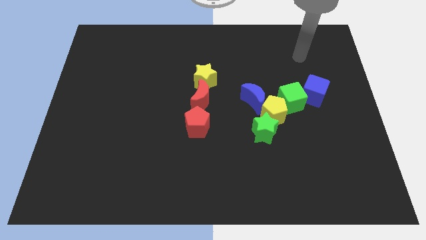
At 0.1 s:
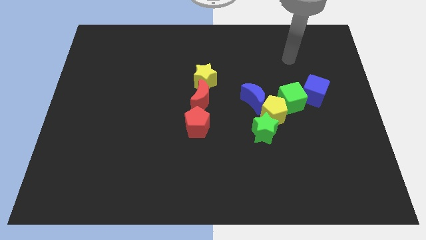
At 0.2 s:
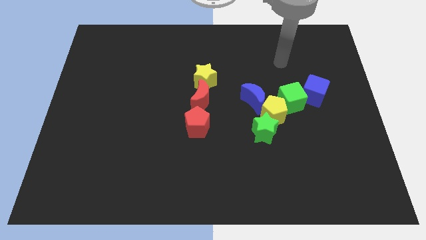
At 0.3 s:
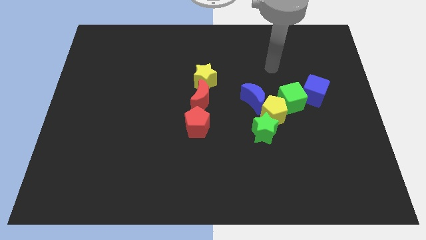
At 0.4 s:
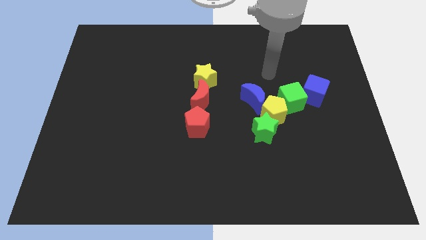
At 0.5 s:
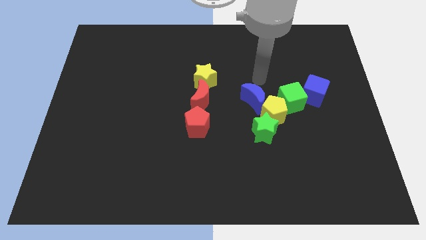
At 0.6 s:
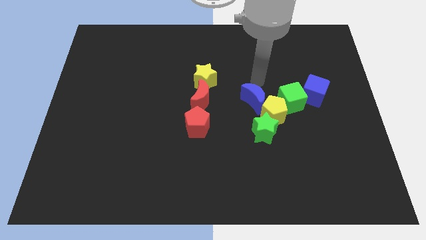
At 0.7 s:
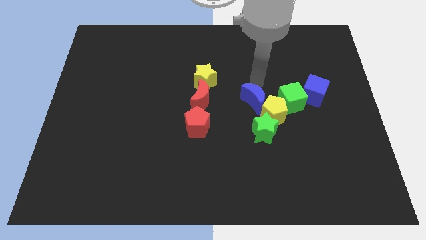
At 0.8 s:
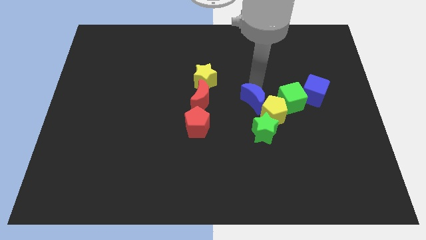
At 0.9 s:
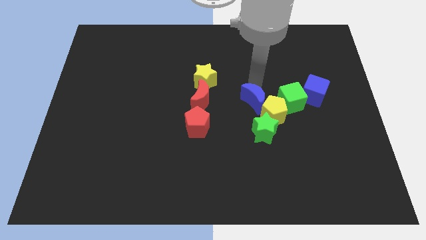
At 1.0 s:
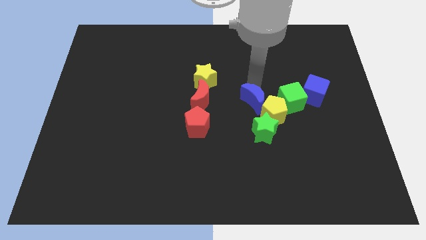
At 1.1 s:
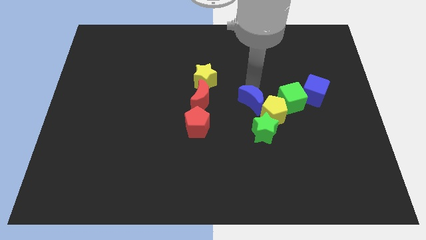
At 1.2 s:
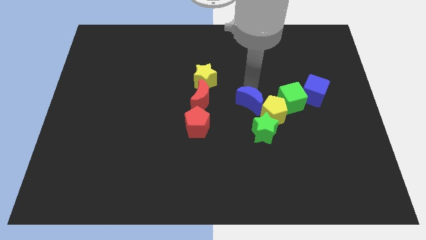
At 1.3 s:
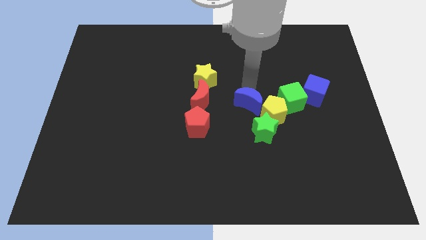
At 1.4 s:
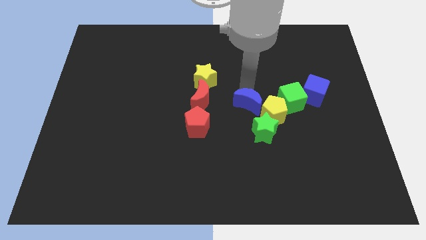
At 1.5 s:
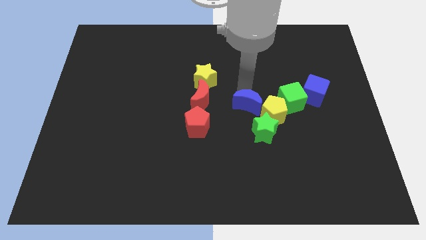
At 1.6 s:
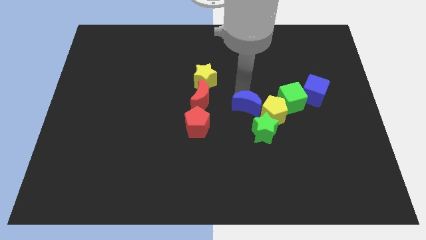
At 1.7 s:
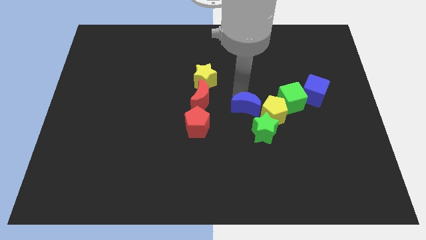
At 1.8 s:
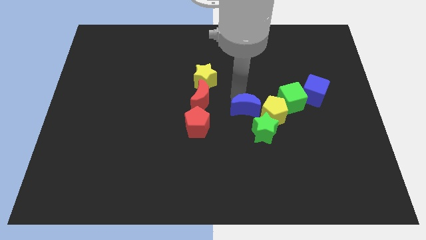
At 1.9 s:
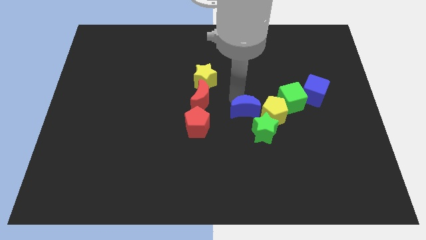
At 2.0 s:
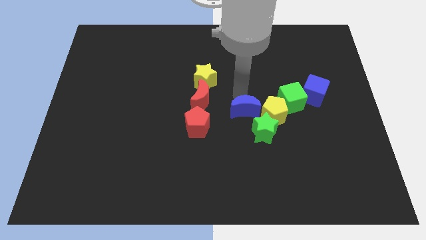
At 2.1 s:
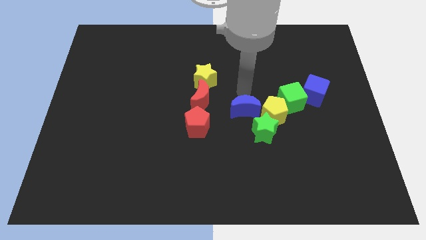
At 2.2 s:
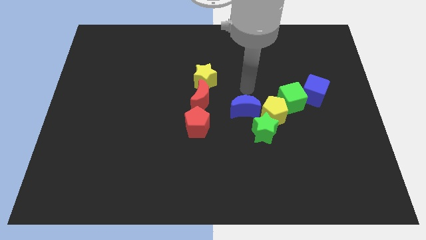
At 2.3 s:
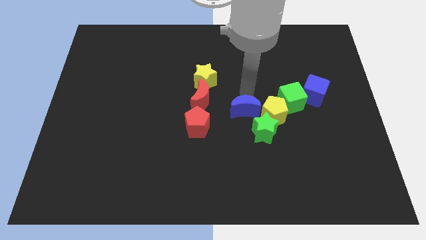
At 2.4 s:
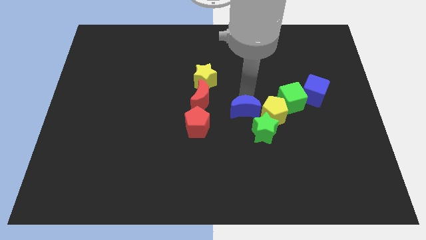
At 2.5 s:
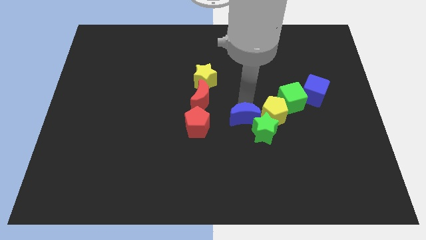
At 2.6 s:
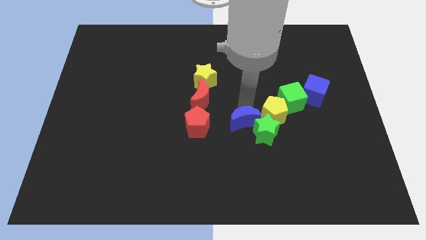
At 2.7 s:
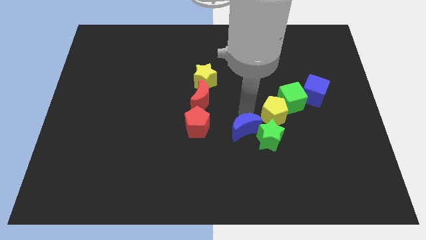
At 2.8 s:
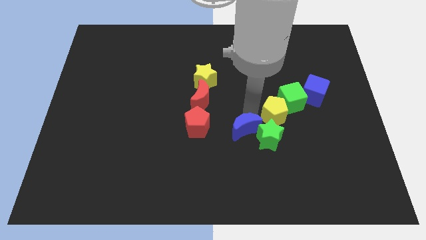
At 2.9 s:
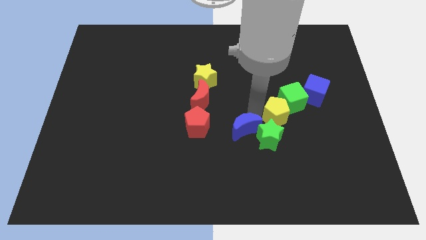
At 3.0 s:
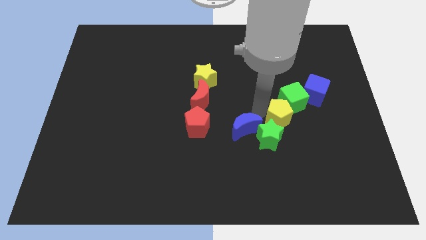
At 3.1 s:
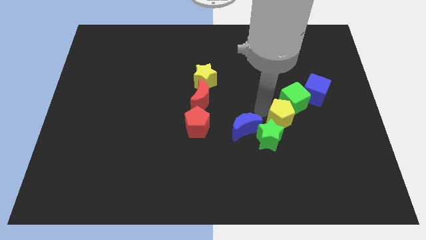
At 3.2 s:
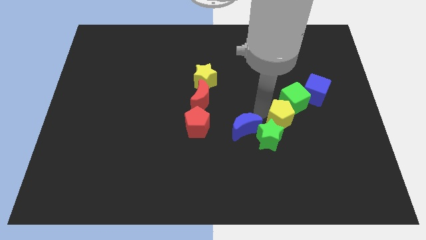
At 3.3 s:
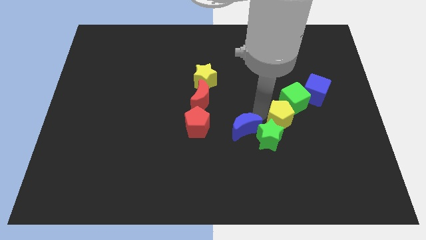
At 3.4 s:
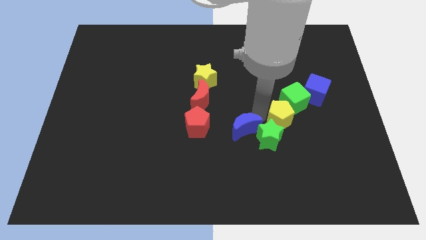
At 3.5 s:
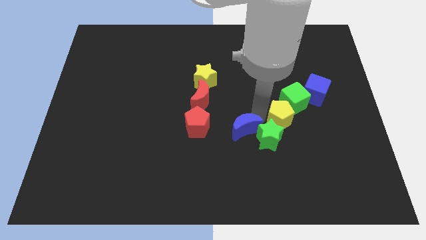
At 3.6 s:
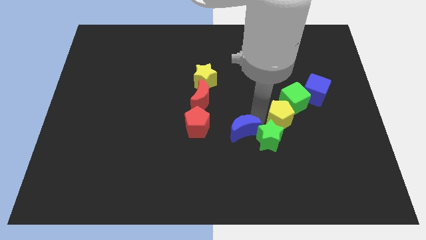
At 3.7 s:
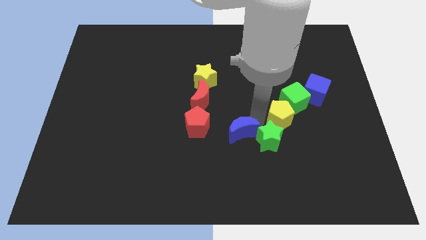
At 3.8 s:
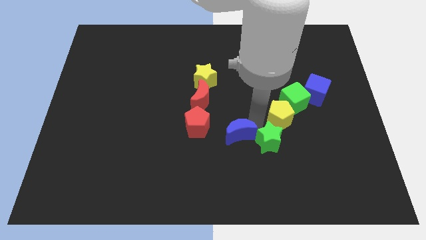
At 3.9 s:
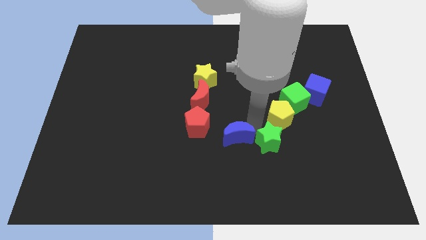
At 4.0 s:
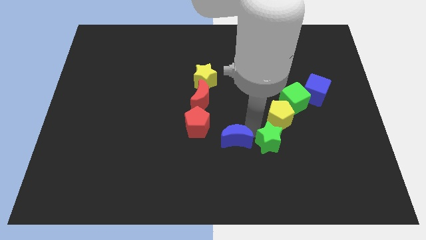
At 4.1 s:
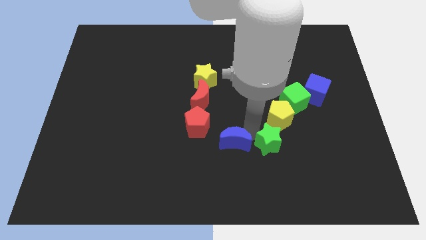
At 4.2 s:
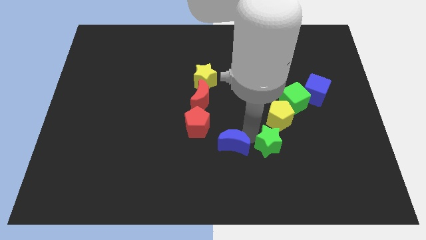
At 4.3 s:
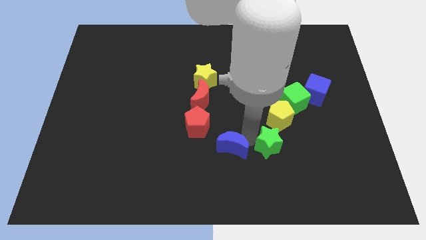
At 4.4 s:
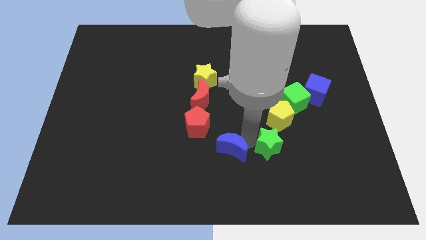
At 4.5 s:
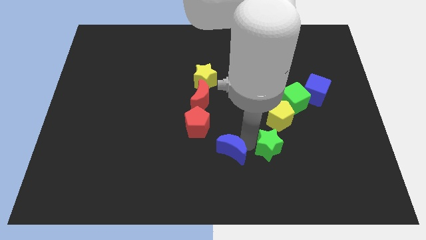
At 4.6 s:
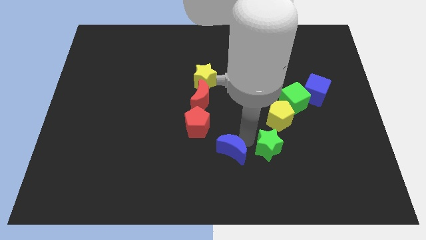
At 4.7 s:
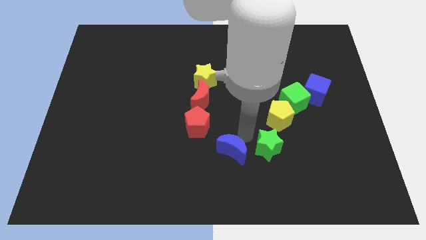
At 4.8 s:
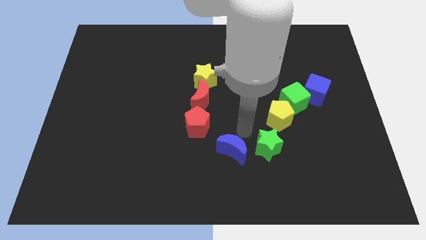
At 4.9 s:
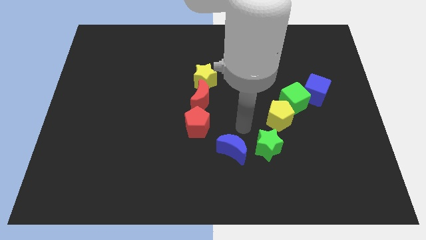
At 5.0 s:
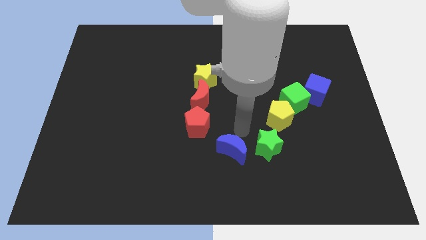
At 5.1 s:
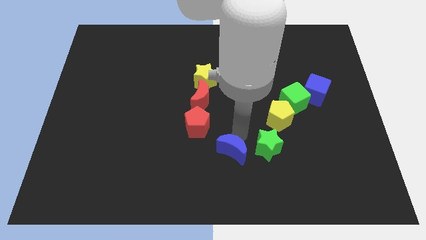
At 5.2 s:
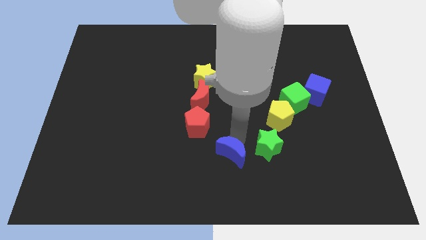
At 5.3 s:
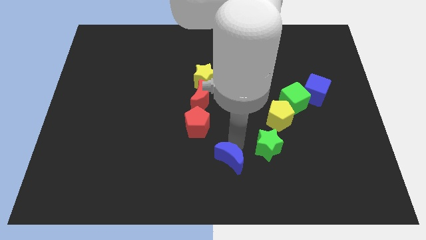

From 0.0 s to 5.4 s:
slide the blue moon to the bottom

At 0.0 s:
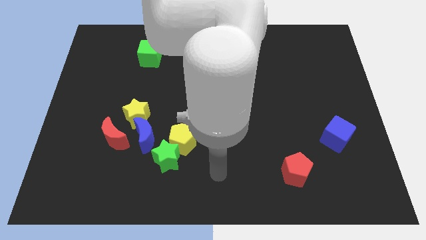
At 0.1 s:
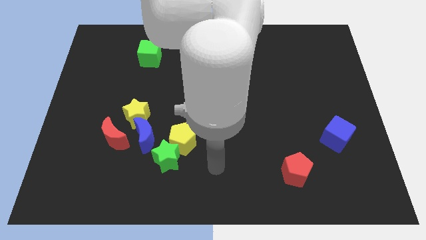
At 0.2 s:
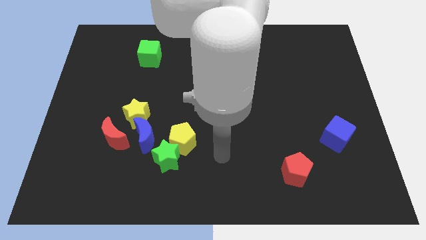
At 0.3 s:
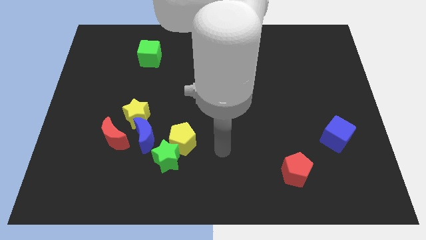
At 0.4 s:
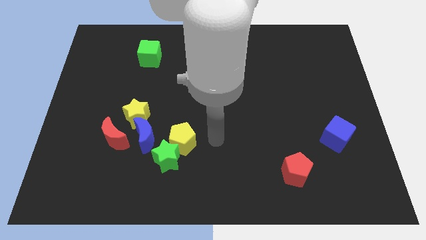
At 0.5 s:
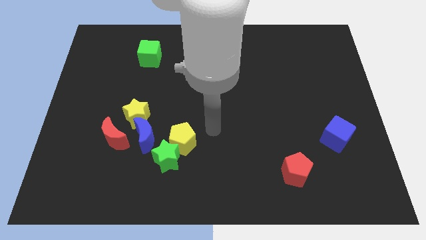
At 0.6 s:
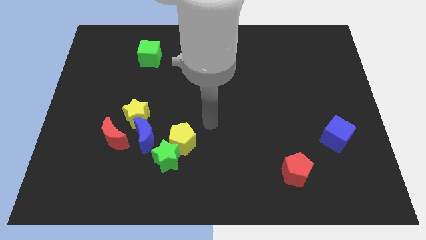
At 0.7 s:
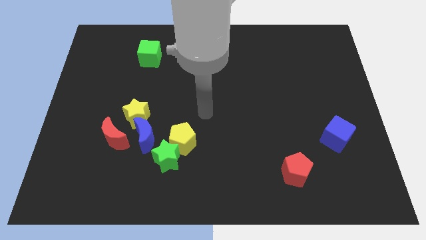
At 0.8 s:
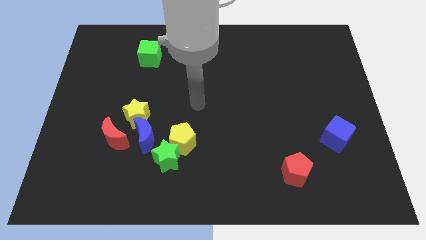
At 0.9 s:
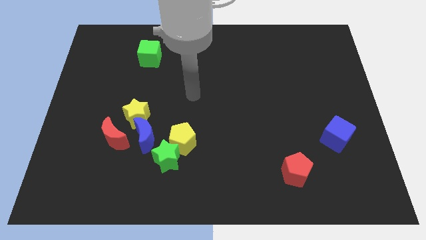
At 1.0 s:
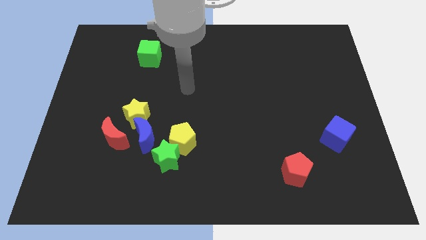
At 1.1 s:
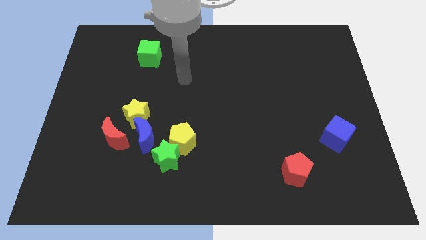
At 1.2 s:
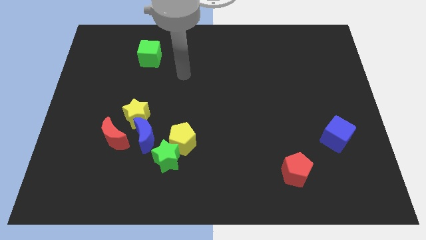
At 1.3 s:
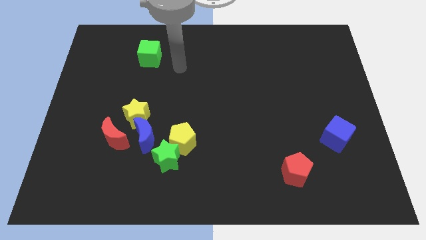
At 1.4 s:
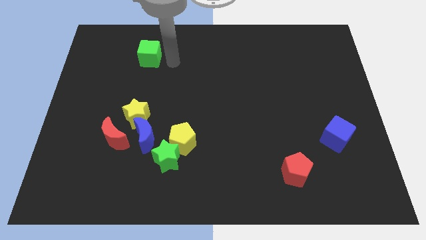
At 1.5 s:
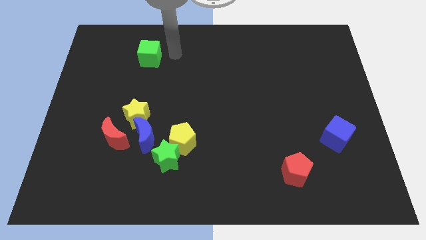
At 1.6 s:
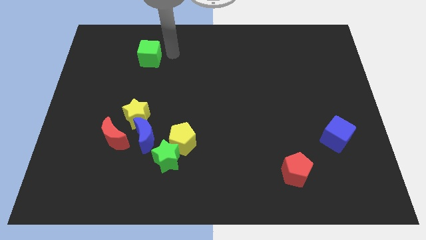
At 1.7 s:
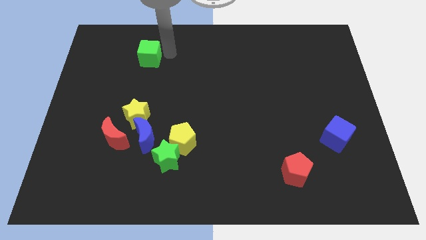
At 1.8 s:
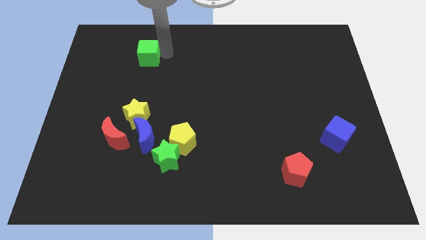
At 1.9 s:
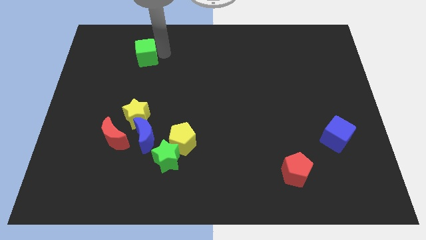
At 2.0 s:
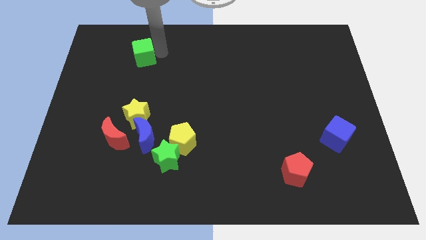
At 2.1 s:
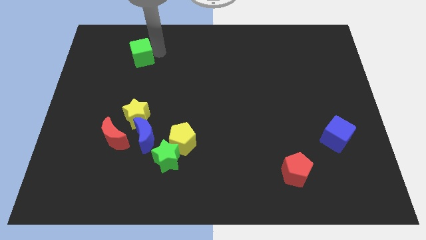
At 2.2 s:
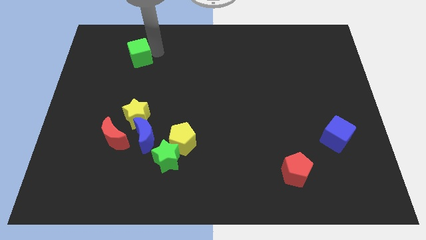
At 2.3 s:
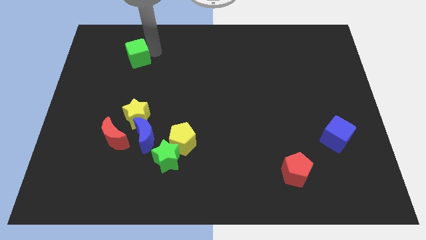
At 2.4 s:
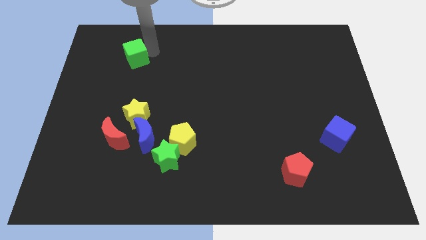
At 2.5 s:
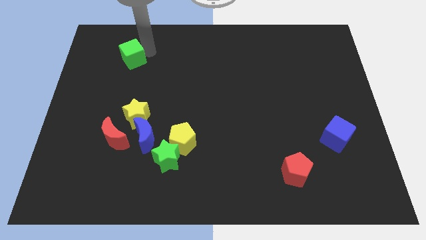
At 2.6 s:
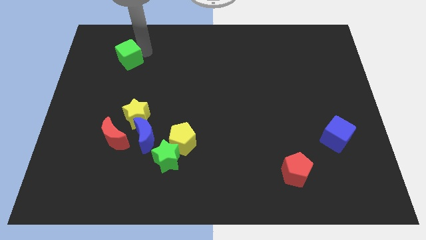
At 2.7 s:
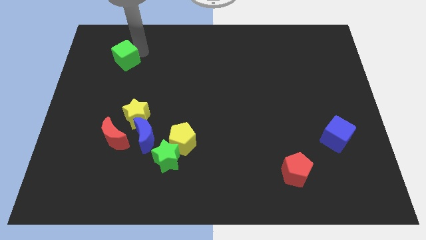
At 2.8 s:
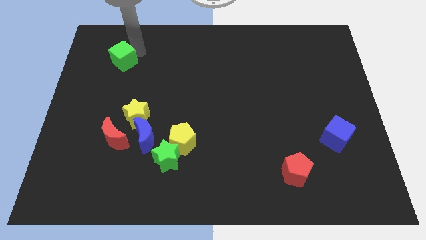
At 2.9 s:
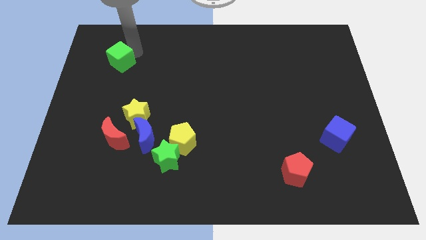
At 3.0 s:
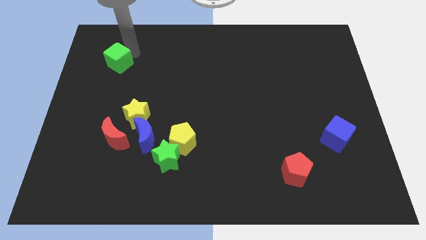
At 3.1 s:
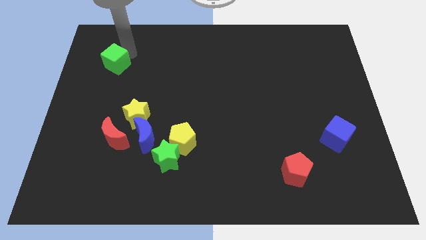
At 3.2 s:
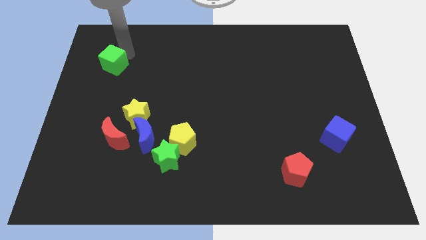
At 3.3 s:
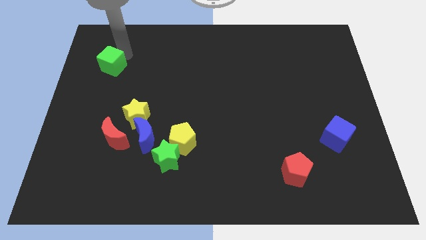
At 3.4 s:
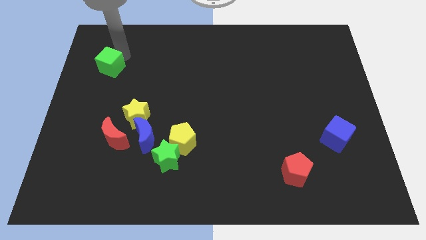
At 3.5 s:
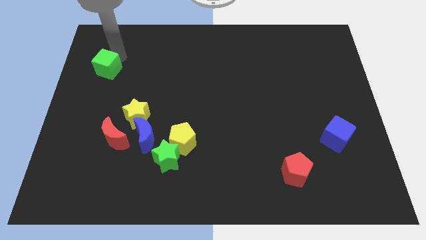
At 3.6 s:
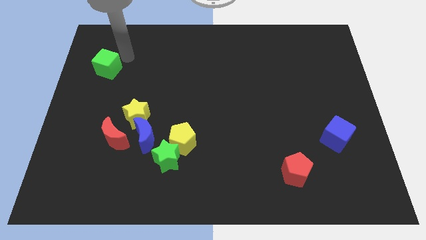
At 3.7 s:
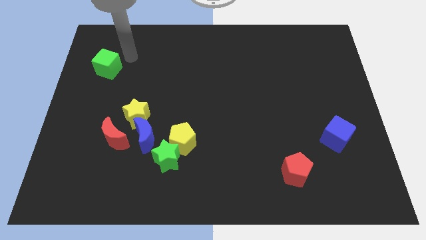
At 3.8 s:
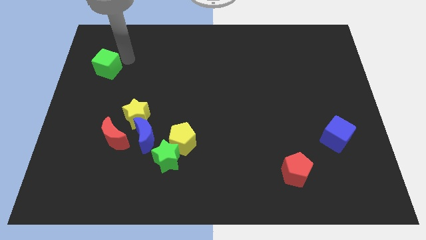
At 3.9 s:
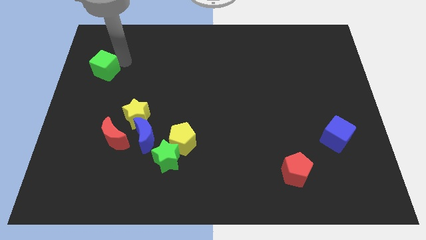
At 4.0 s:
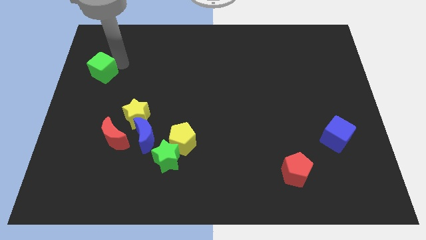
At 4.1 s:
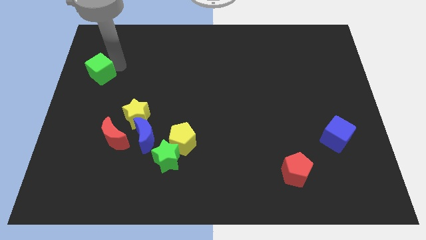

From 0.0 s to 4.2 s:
slide the green cube to the left side of the board
